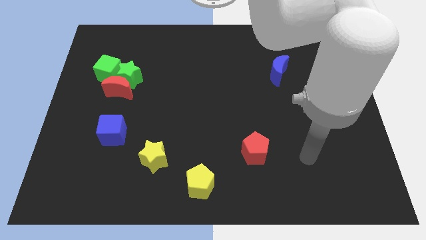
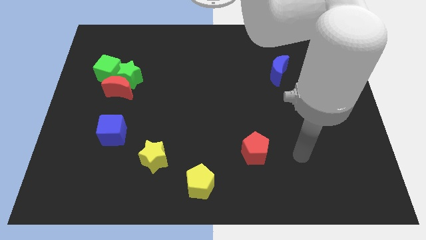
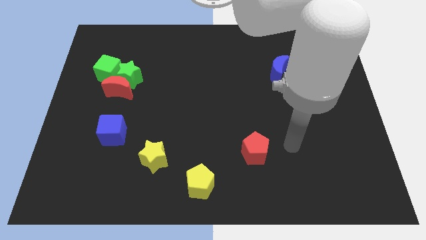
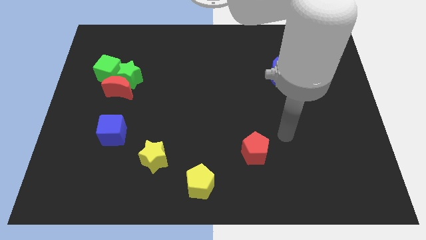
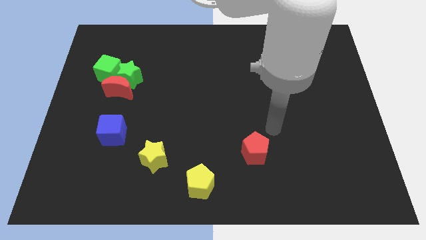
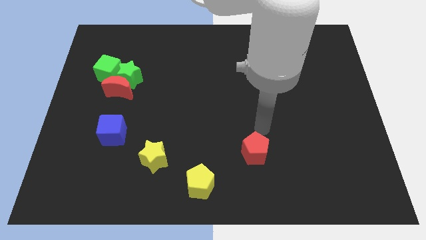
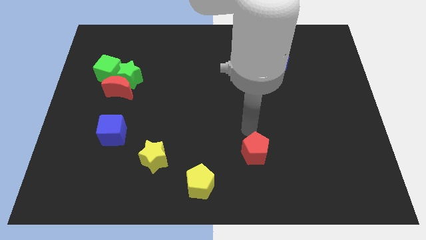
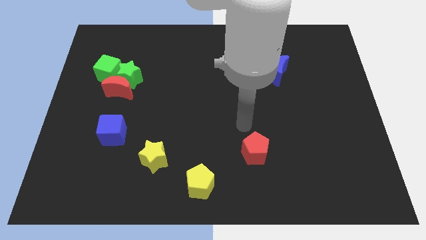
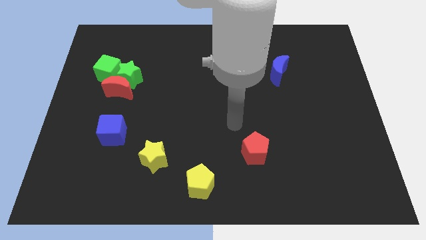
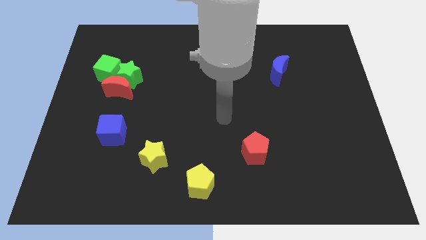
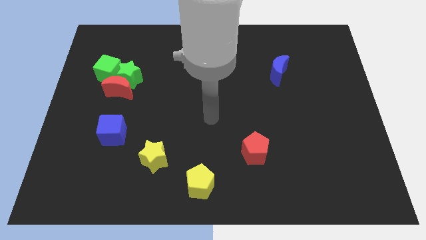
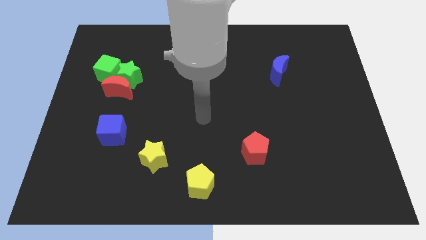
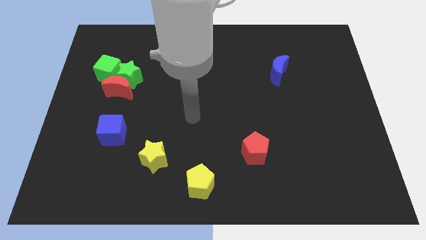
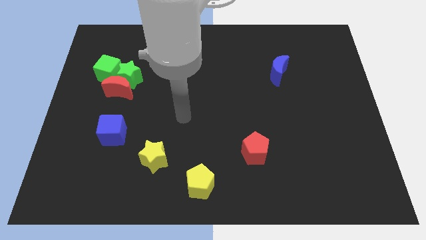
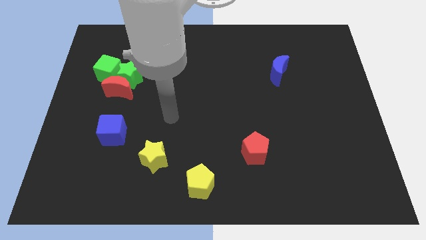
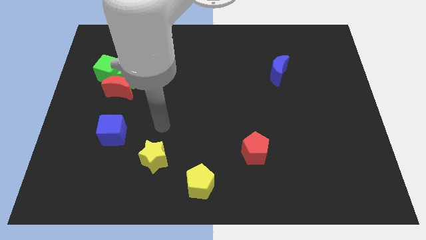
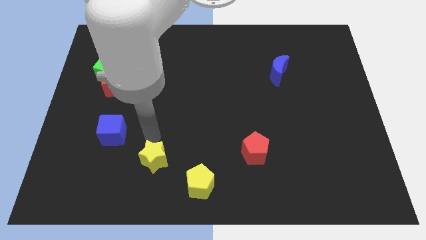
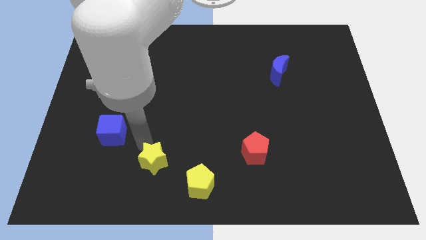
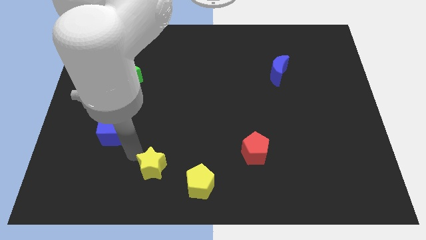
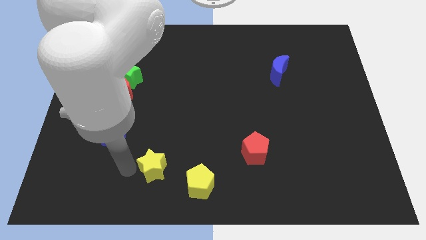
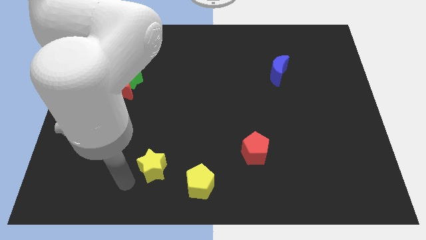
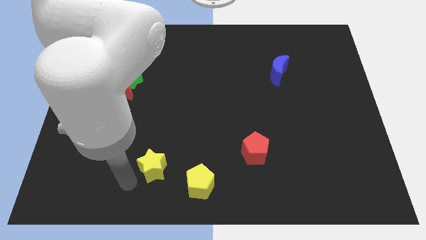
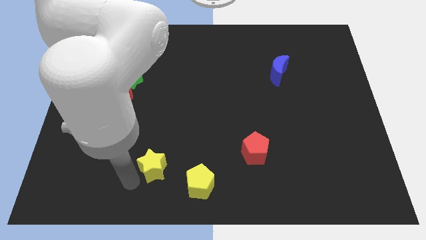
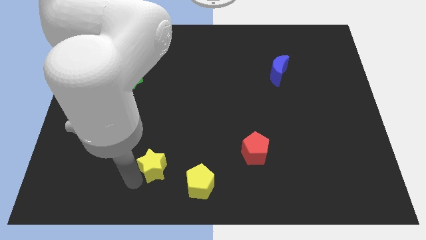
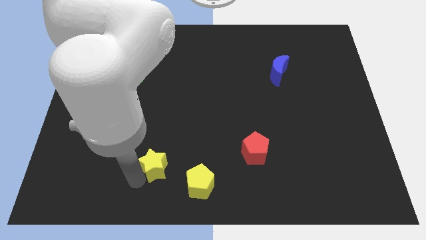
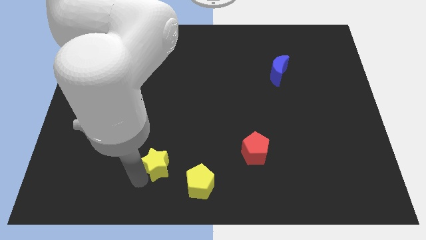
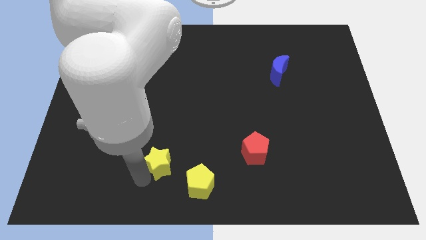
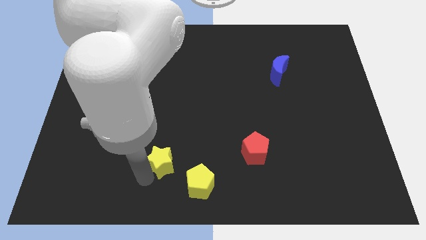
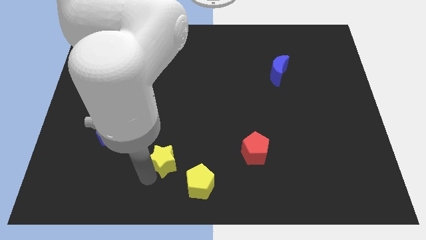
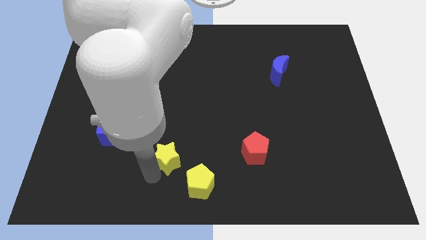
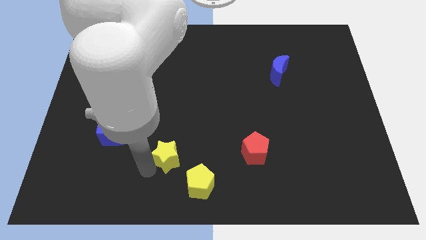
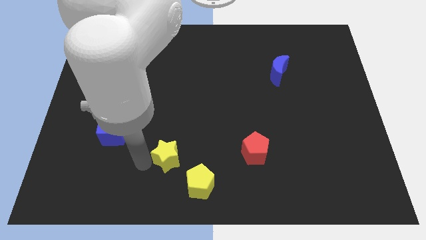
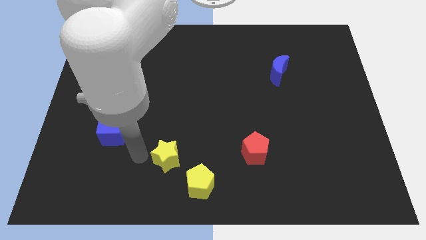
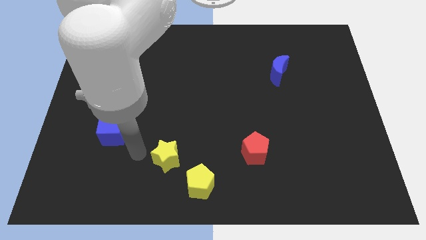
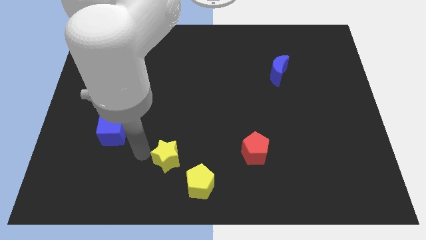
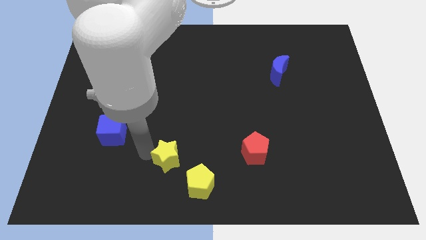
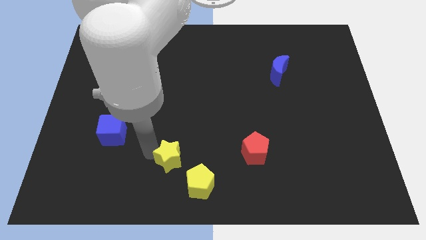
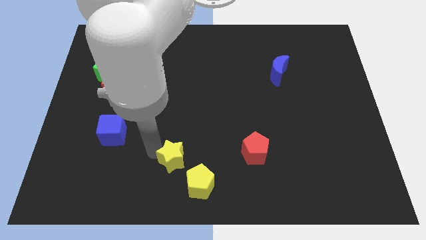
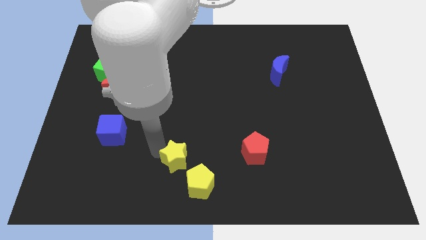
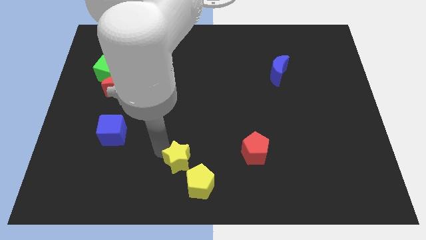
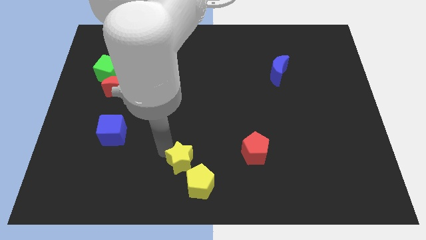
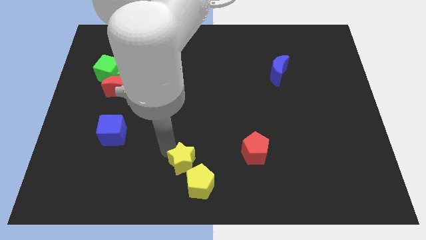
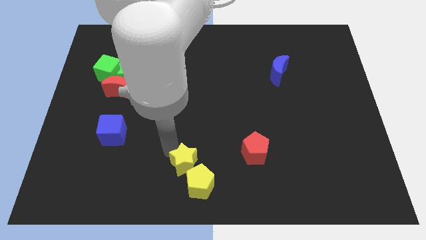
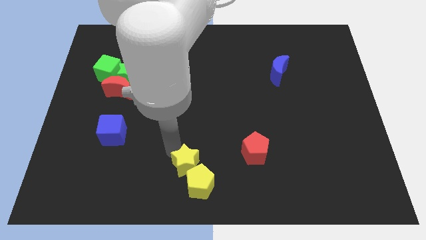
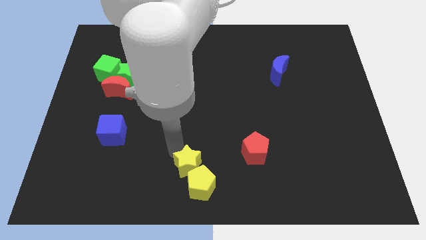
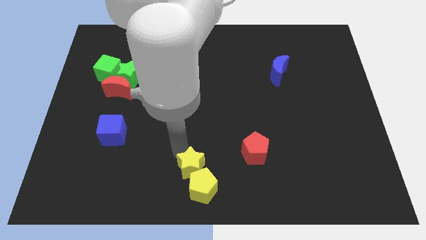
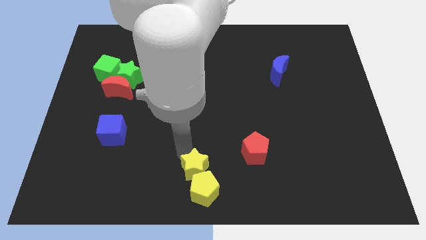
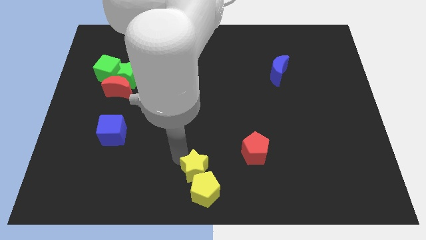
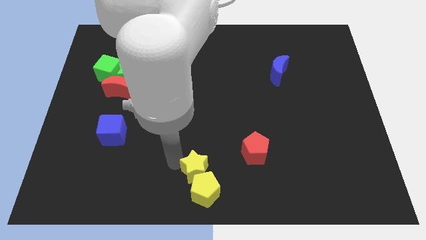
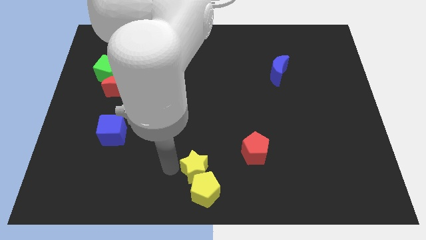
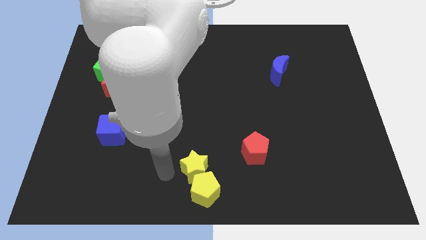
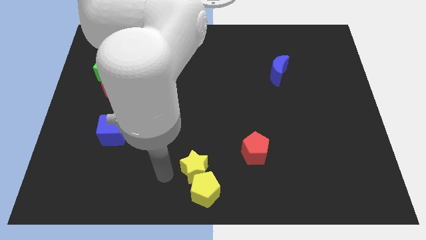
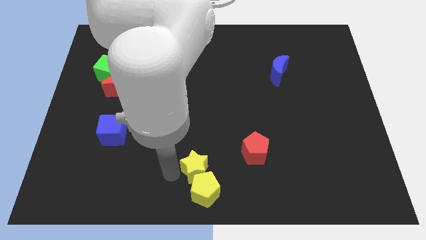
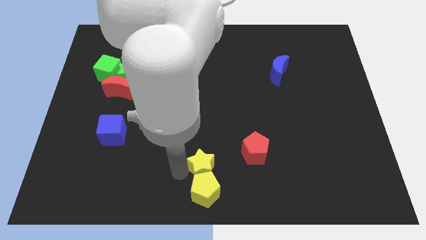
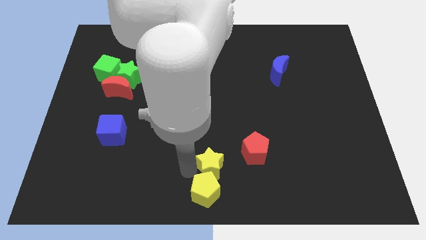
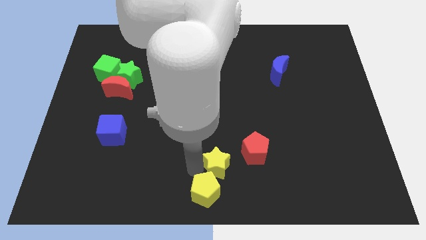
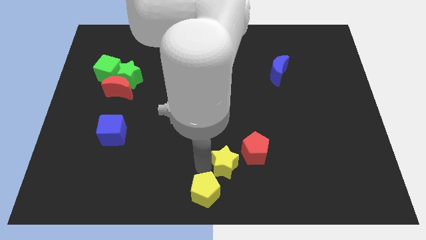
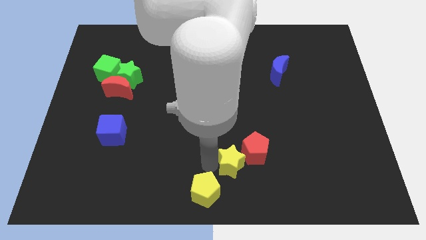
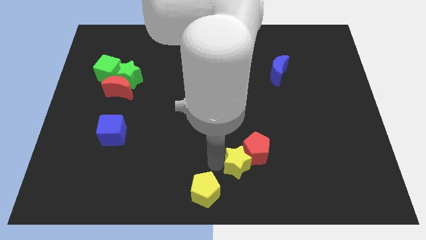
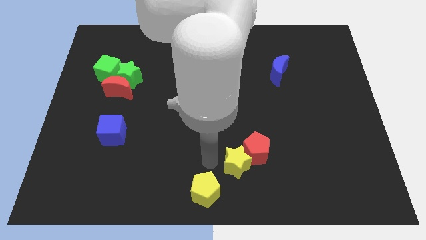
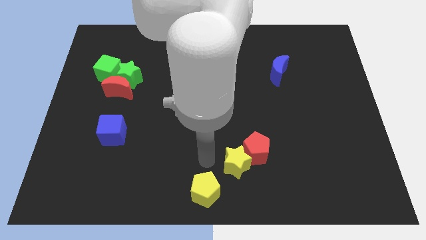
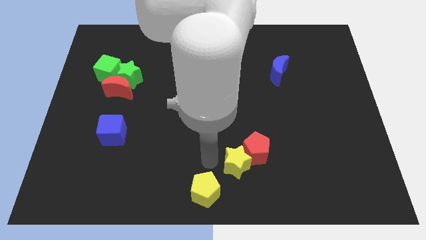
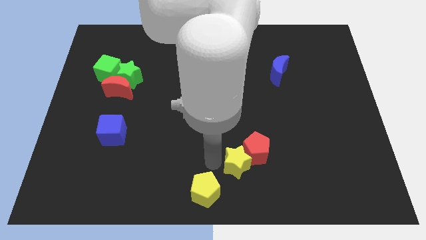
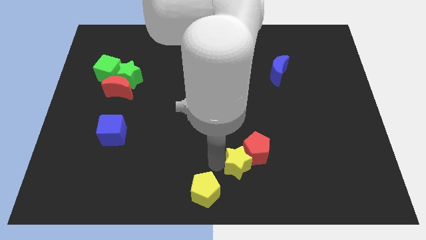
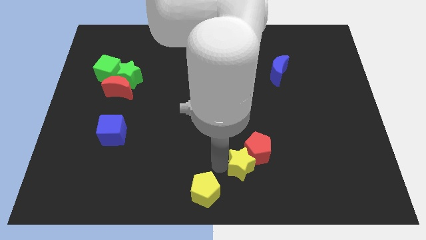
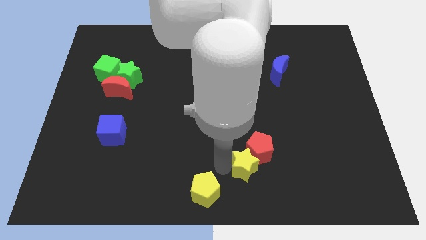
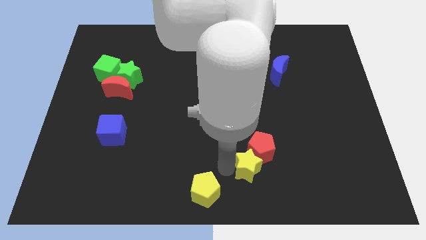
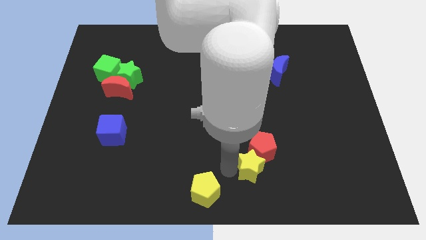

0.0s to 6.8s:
move the yellow star right

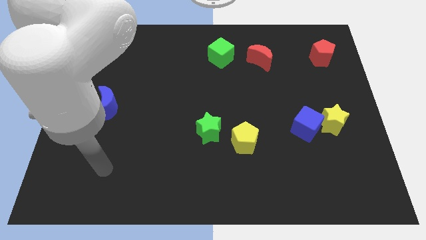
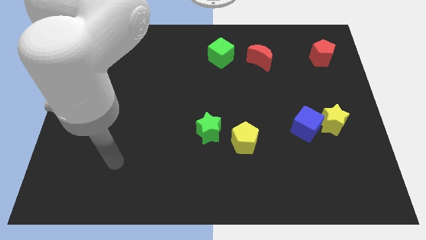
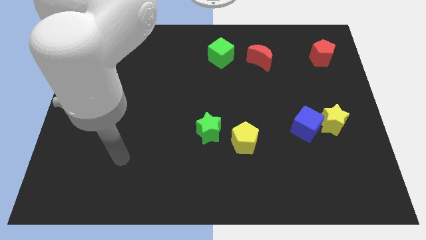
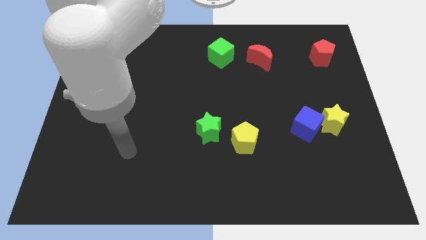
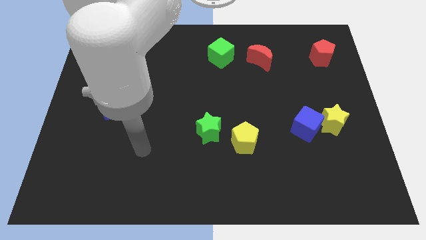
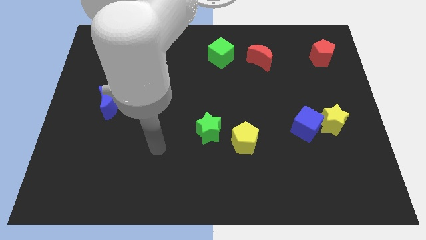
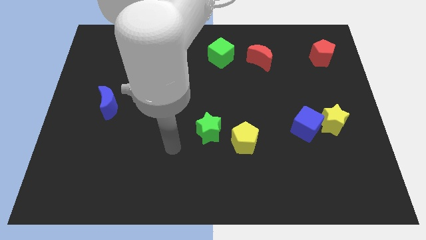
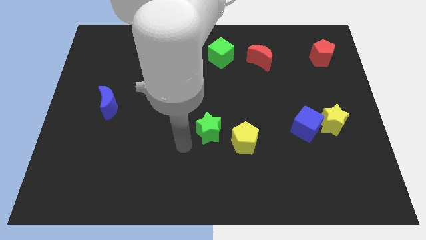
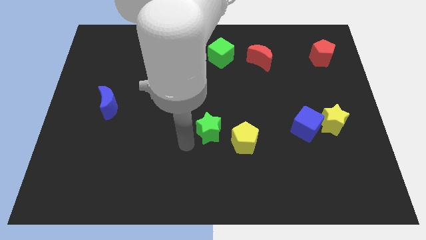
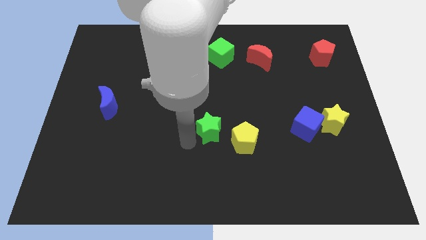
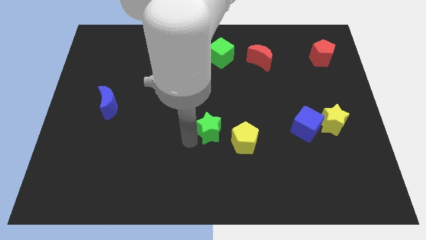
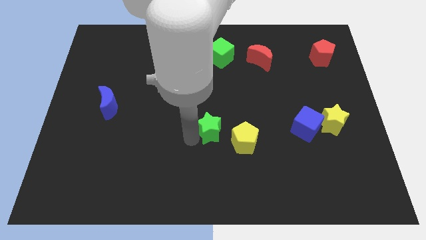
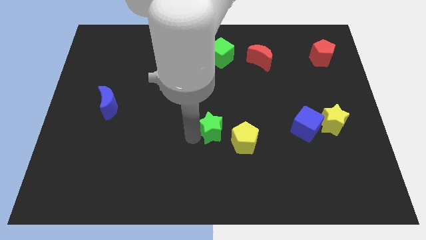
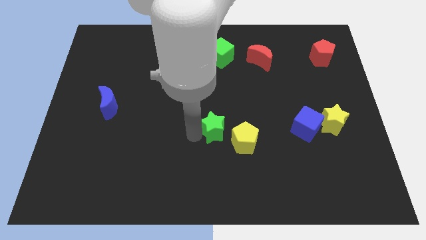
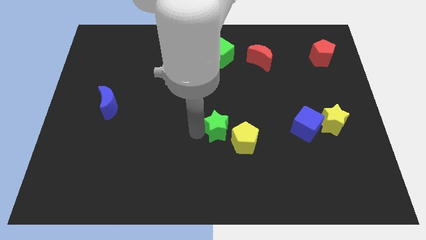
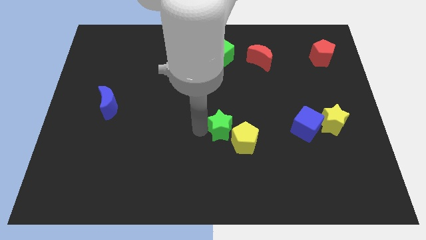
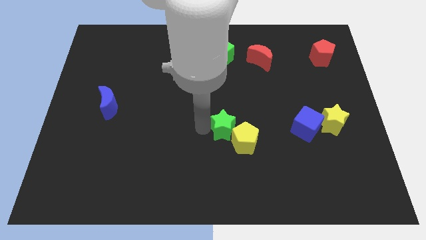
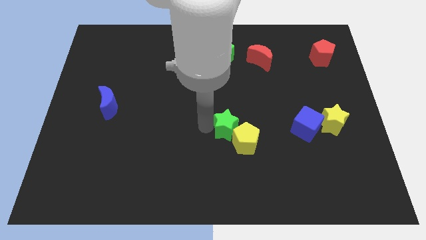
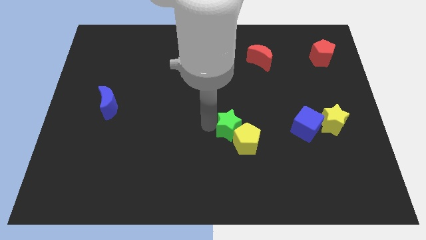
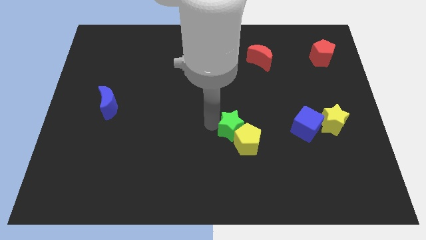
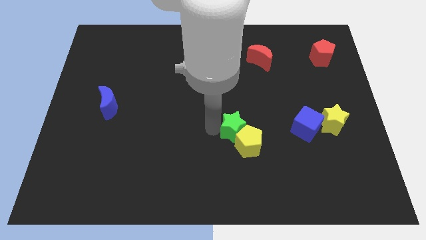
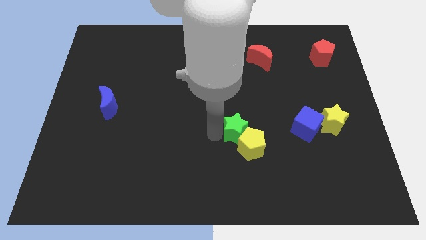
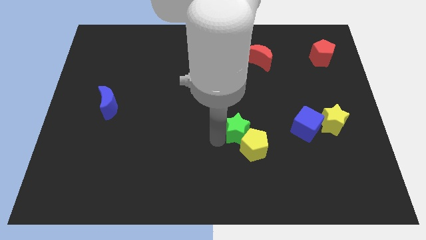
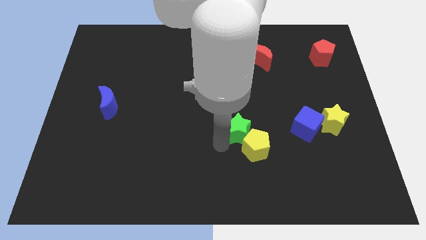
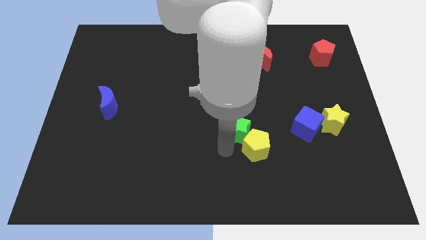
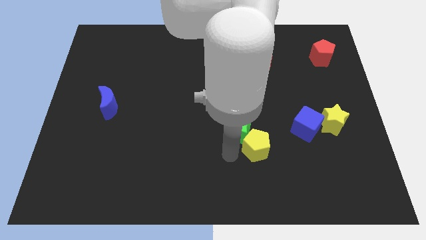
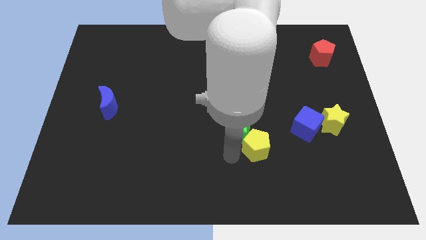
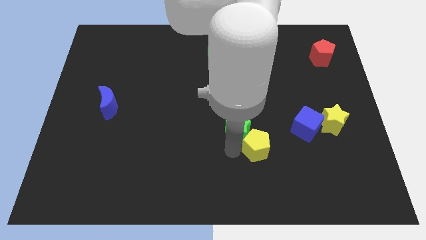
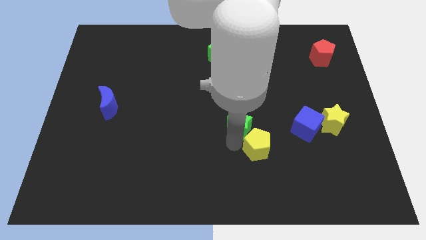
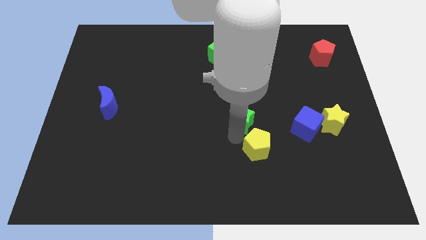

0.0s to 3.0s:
push the green star slightly up and then right
